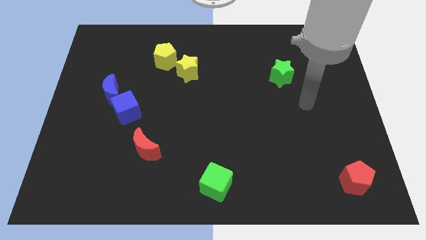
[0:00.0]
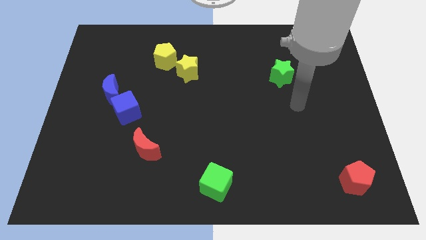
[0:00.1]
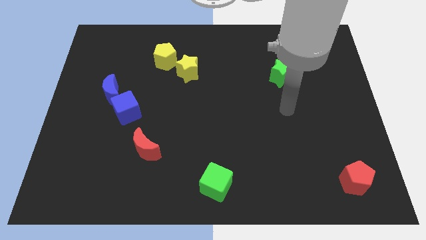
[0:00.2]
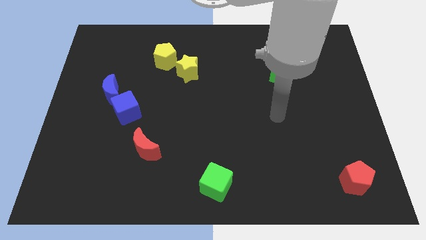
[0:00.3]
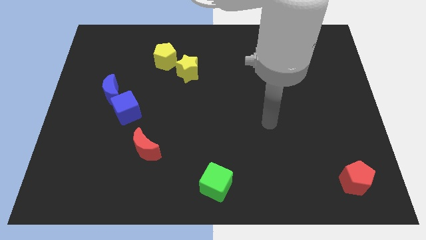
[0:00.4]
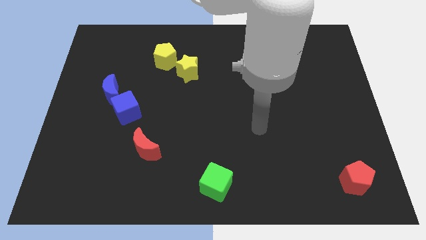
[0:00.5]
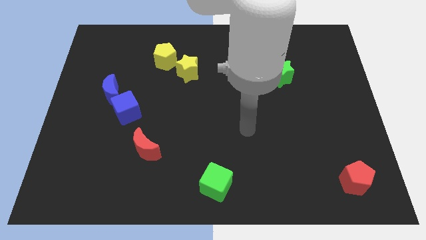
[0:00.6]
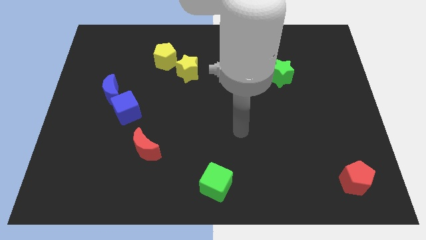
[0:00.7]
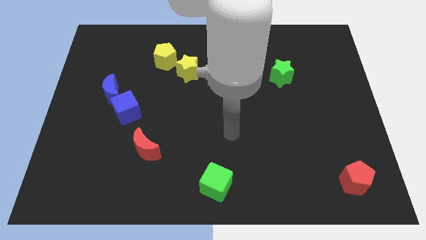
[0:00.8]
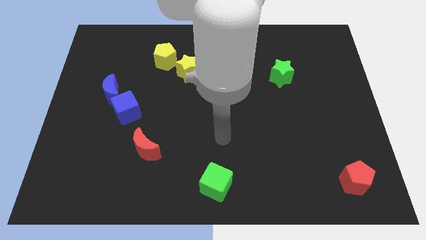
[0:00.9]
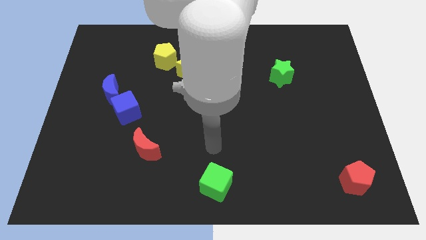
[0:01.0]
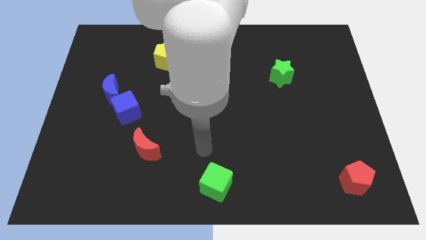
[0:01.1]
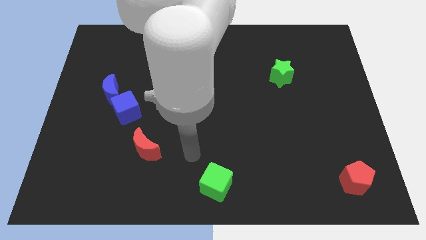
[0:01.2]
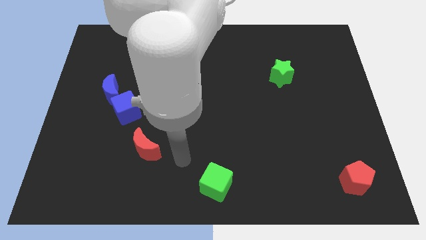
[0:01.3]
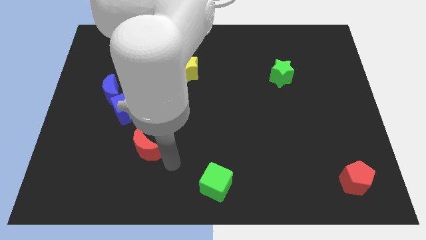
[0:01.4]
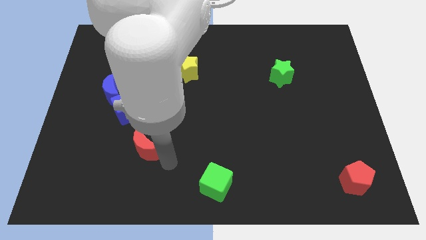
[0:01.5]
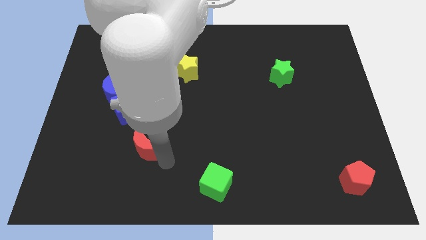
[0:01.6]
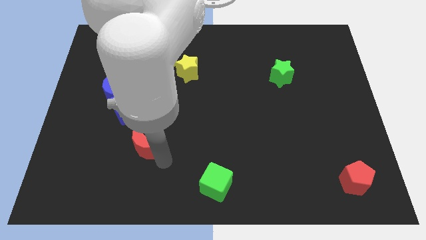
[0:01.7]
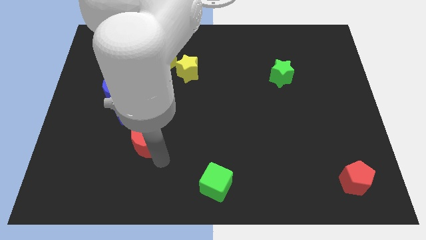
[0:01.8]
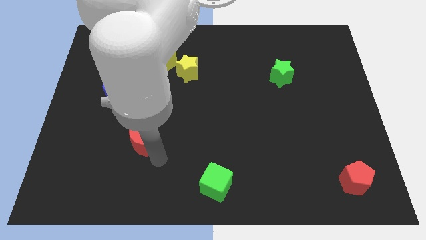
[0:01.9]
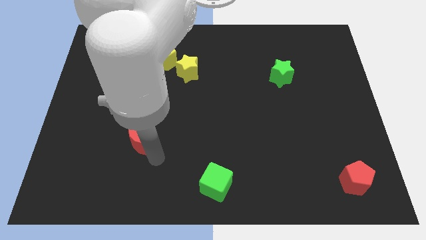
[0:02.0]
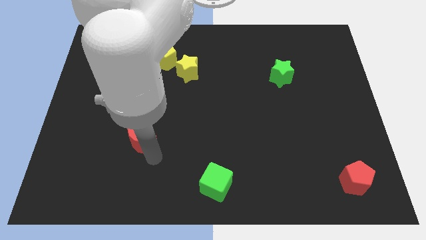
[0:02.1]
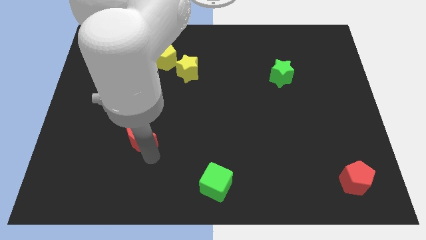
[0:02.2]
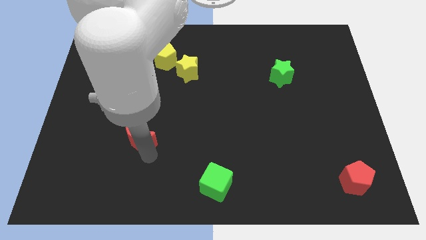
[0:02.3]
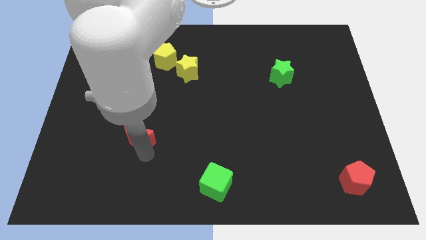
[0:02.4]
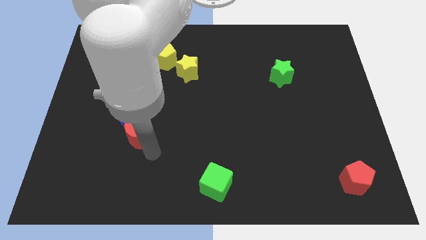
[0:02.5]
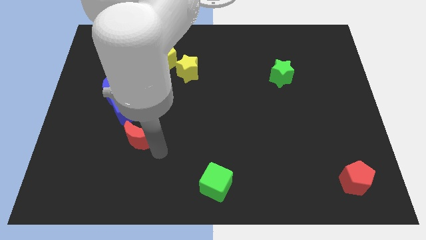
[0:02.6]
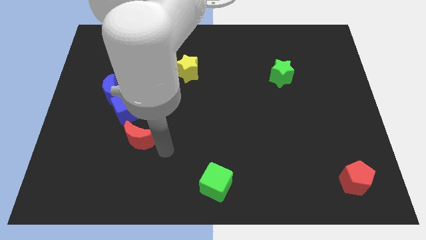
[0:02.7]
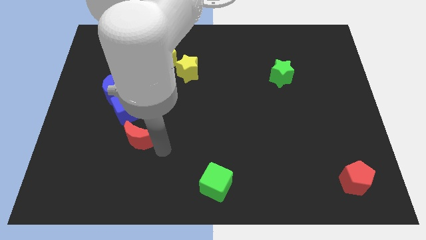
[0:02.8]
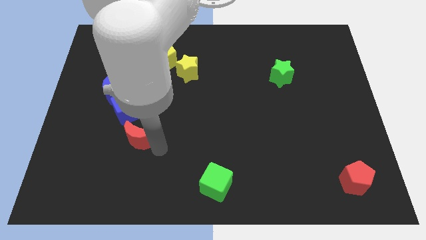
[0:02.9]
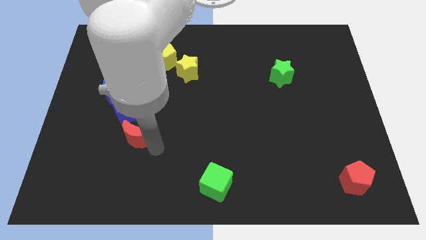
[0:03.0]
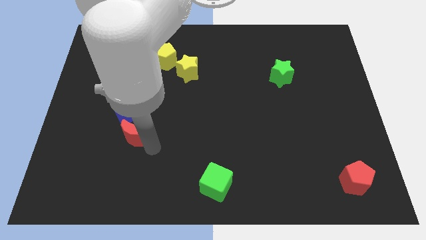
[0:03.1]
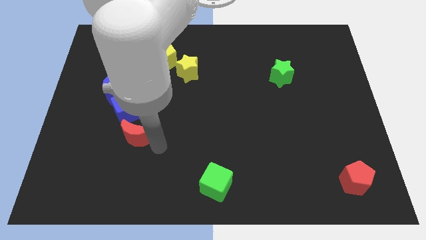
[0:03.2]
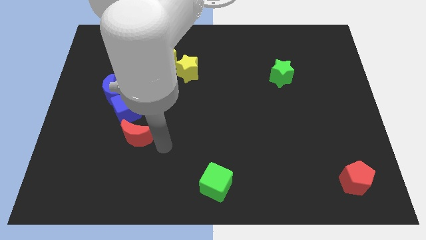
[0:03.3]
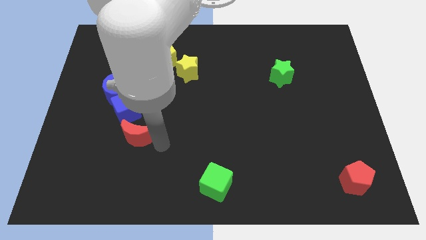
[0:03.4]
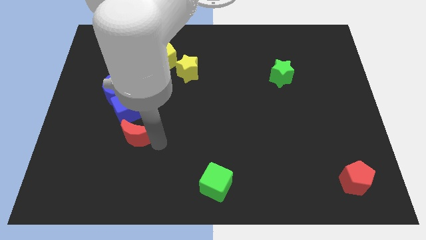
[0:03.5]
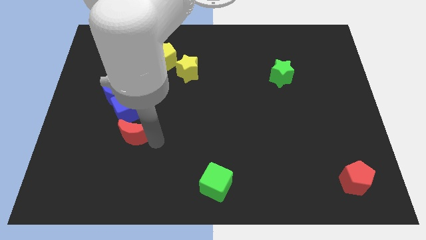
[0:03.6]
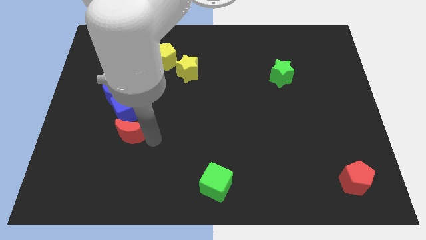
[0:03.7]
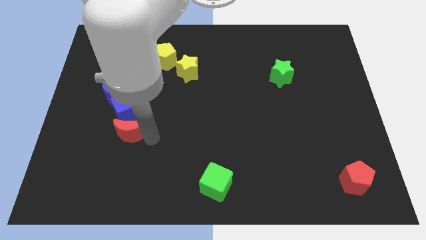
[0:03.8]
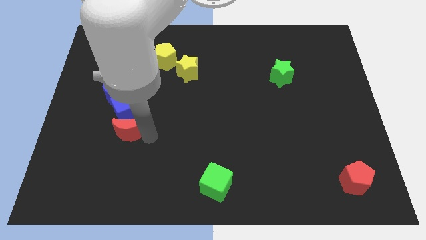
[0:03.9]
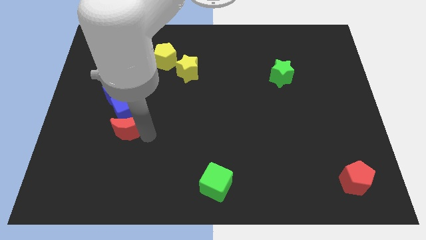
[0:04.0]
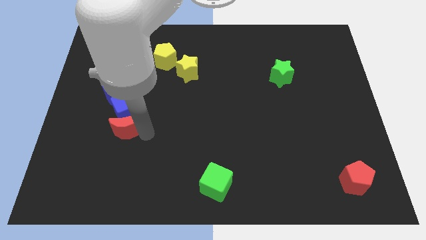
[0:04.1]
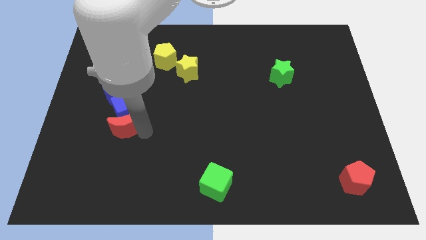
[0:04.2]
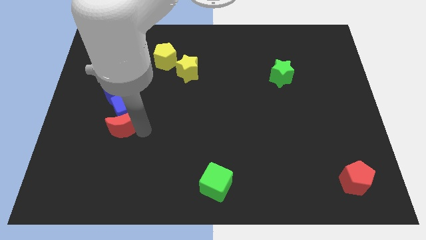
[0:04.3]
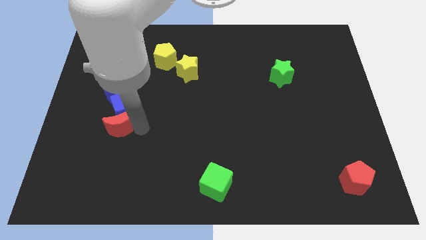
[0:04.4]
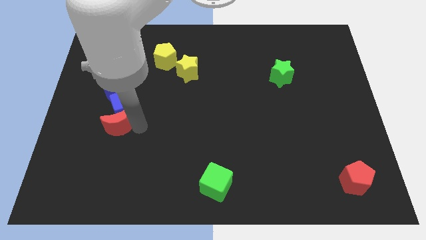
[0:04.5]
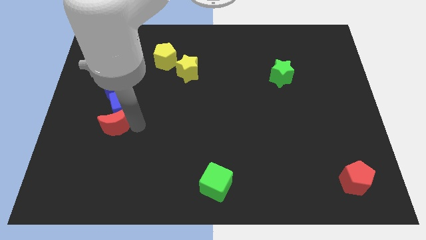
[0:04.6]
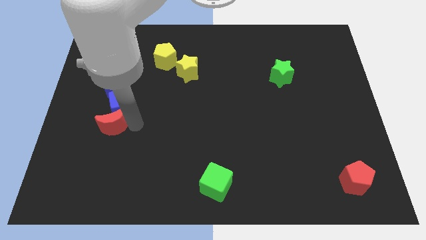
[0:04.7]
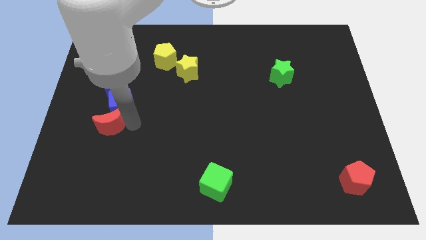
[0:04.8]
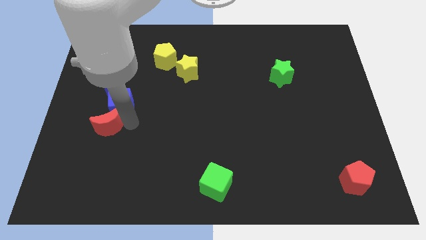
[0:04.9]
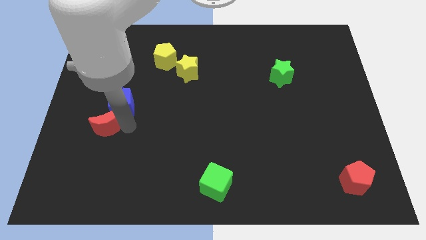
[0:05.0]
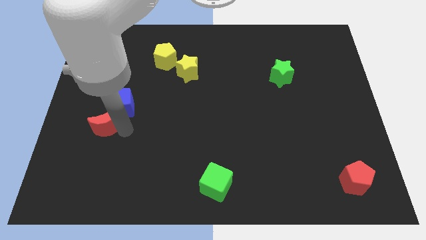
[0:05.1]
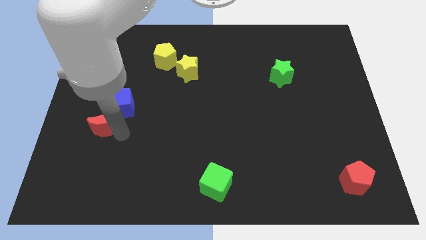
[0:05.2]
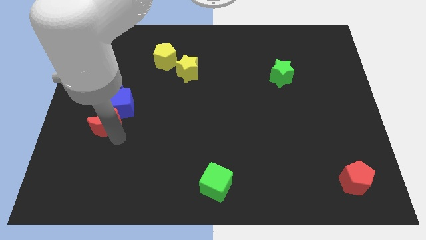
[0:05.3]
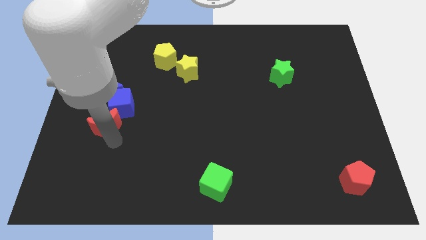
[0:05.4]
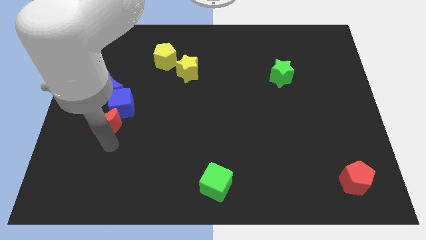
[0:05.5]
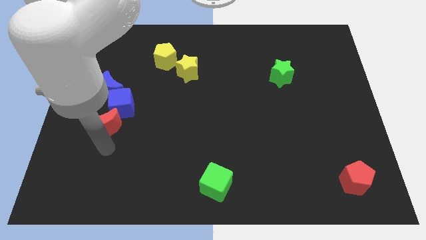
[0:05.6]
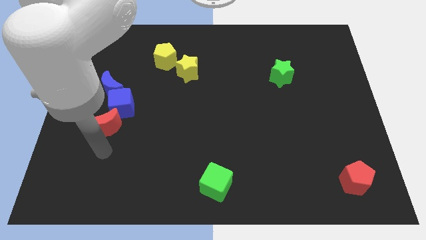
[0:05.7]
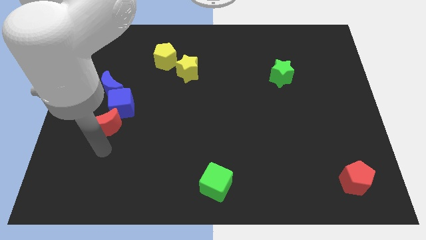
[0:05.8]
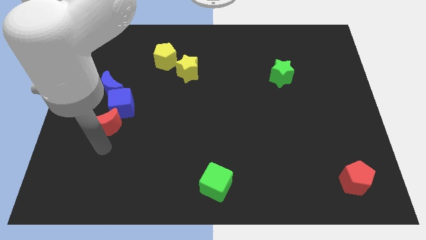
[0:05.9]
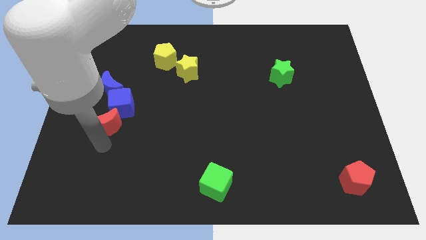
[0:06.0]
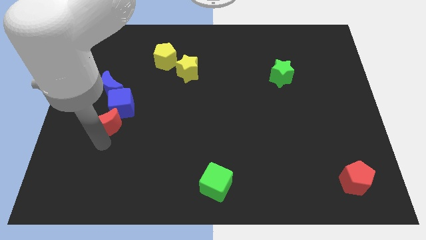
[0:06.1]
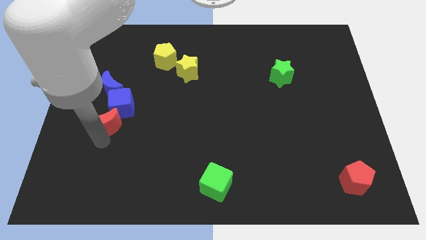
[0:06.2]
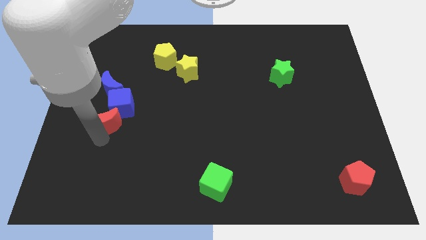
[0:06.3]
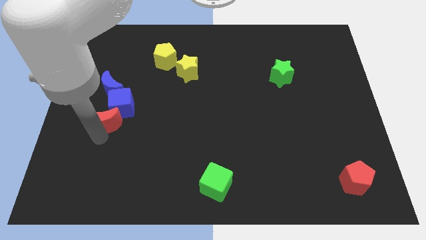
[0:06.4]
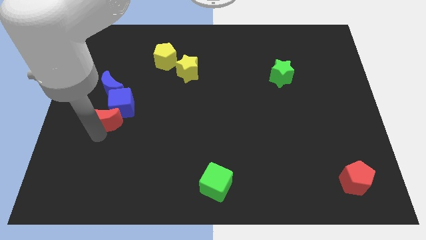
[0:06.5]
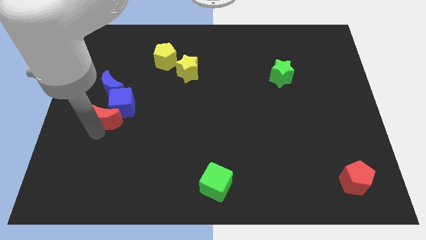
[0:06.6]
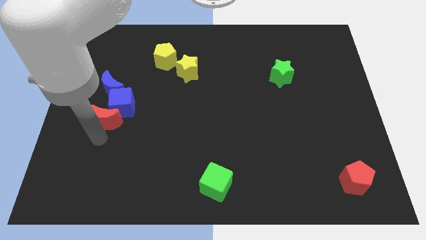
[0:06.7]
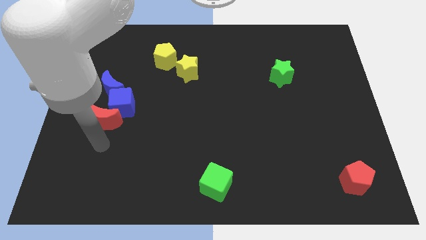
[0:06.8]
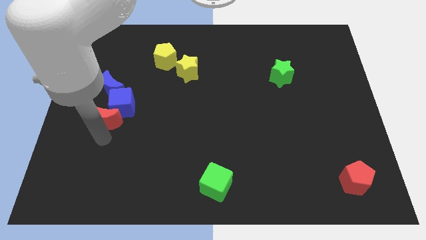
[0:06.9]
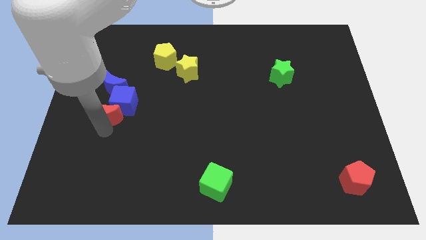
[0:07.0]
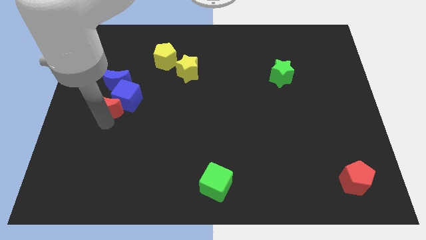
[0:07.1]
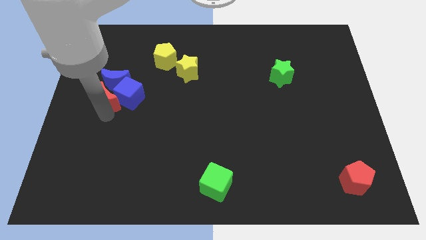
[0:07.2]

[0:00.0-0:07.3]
put the red moon towards the blue moon
